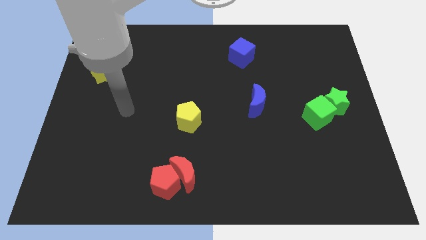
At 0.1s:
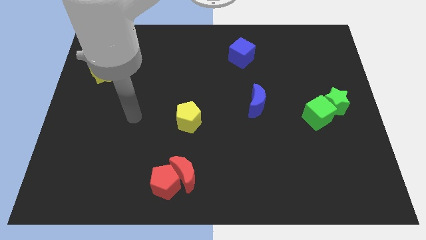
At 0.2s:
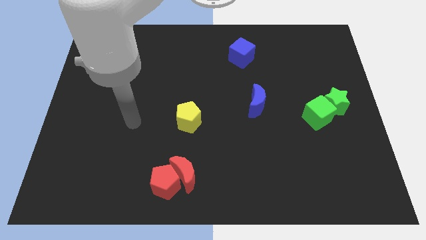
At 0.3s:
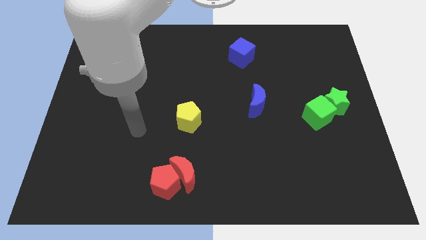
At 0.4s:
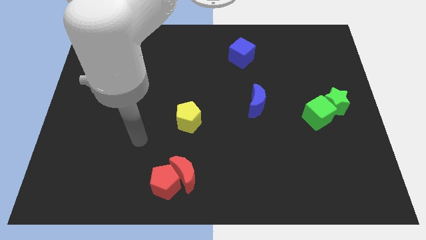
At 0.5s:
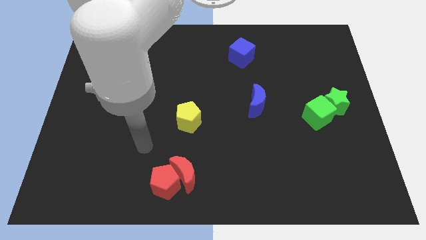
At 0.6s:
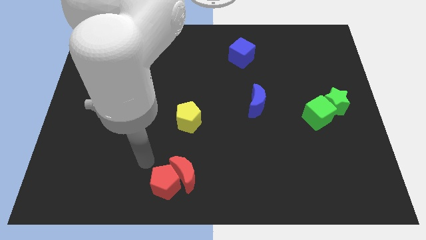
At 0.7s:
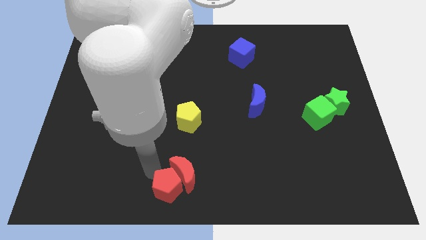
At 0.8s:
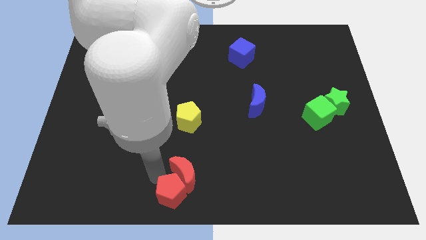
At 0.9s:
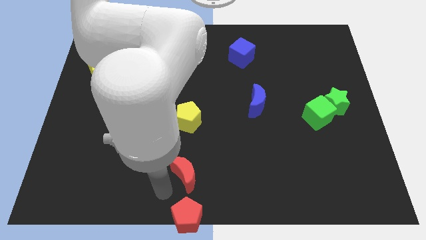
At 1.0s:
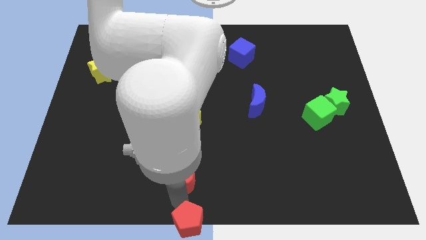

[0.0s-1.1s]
pull the red moon apart from the red pentagon

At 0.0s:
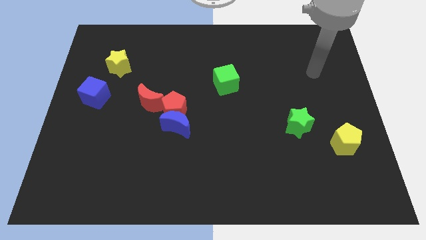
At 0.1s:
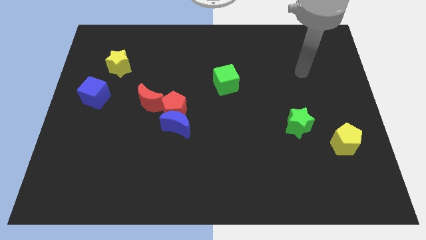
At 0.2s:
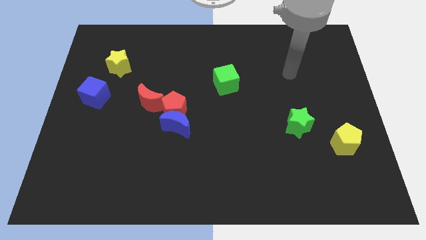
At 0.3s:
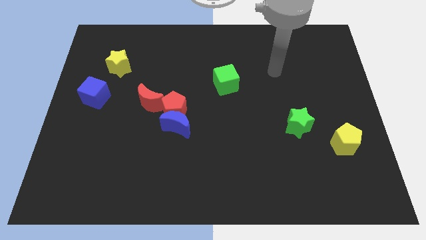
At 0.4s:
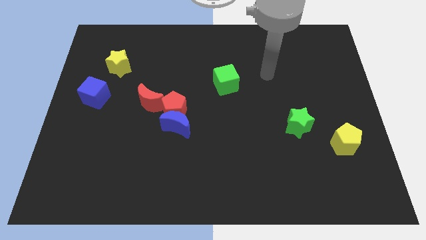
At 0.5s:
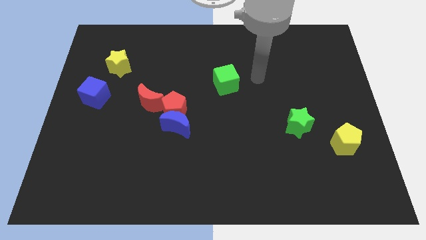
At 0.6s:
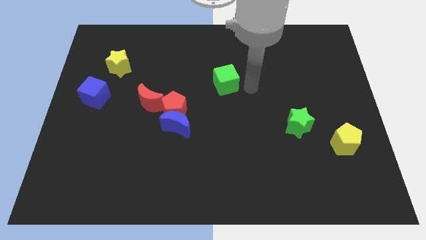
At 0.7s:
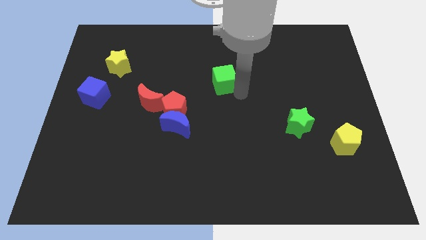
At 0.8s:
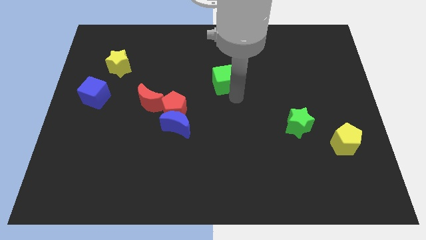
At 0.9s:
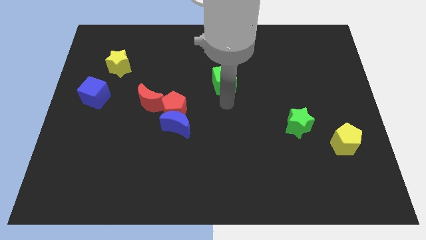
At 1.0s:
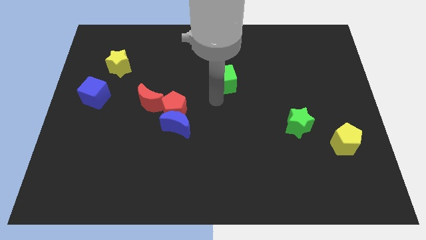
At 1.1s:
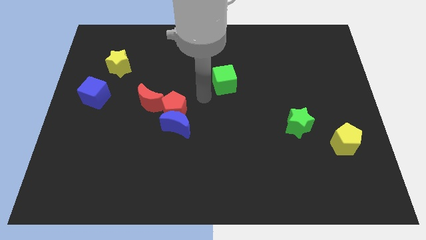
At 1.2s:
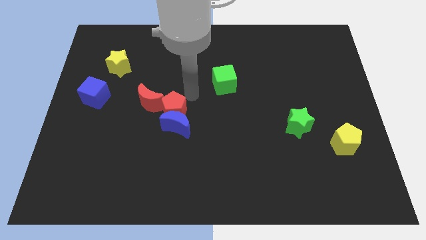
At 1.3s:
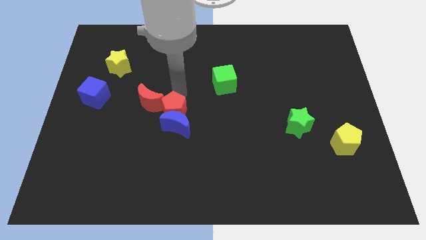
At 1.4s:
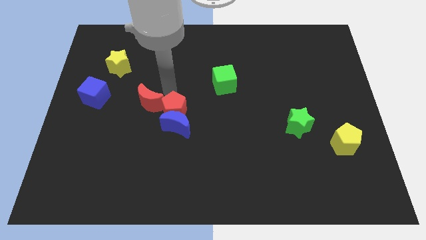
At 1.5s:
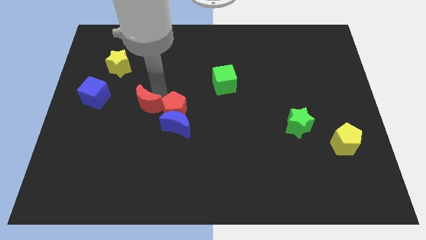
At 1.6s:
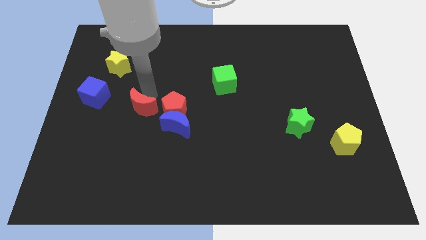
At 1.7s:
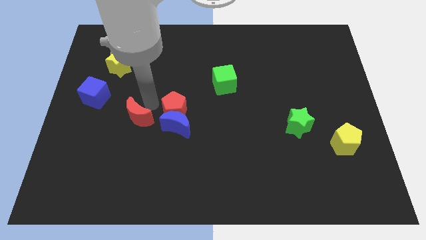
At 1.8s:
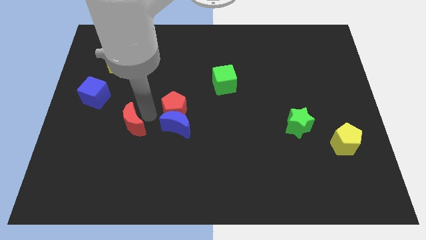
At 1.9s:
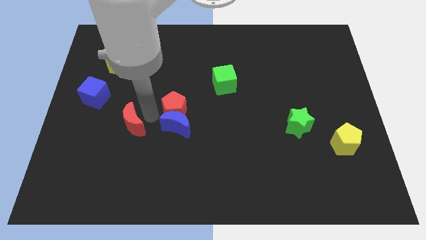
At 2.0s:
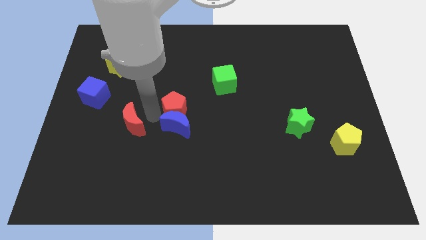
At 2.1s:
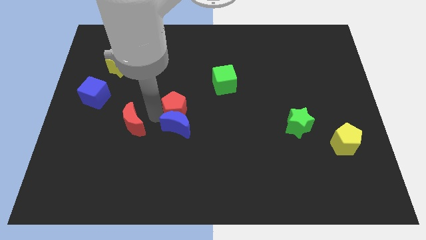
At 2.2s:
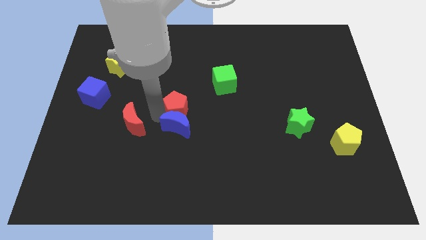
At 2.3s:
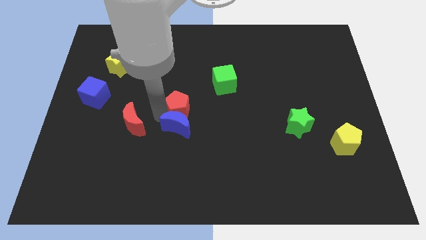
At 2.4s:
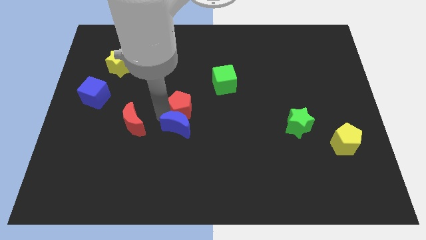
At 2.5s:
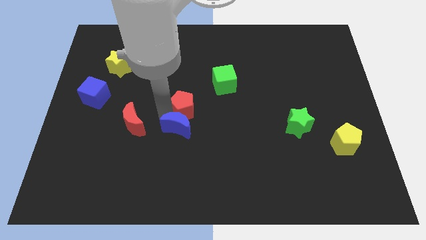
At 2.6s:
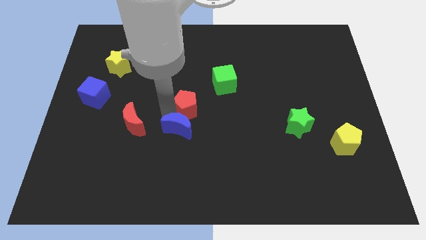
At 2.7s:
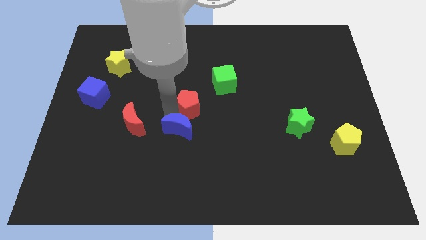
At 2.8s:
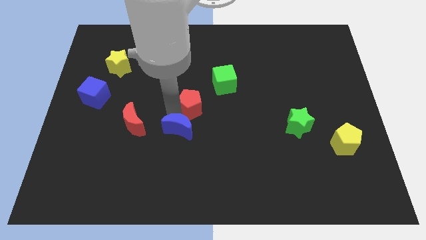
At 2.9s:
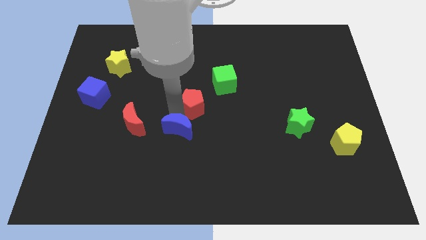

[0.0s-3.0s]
move the red pentagon away from the blue moon and red moon

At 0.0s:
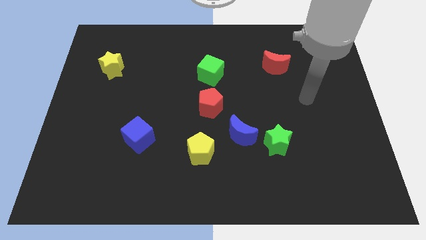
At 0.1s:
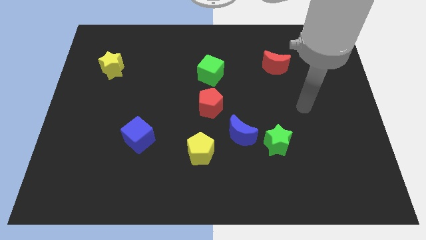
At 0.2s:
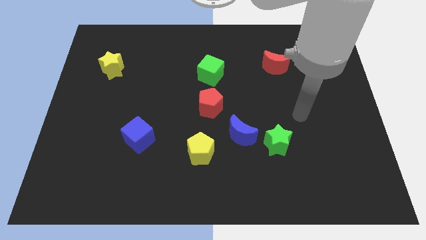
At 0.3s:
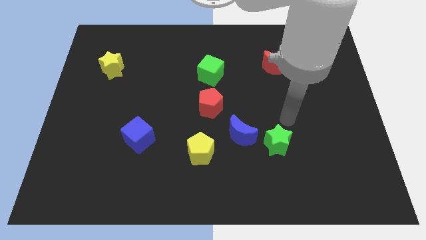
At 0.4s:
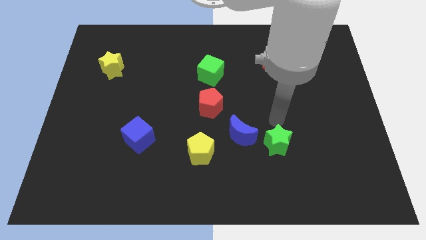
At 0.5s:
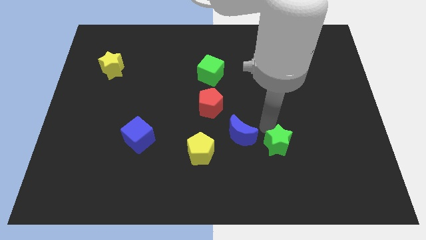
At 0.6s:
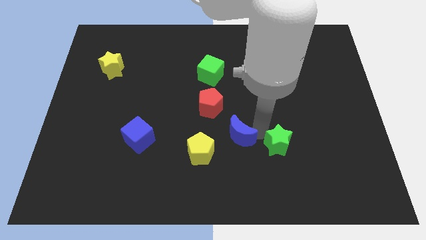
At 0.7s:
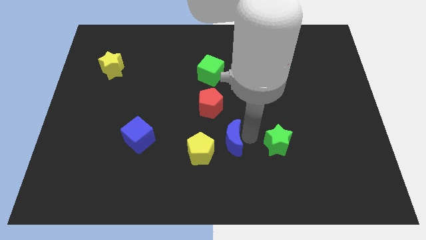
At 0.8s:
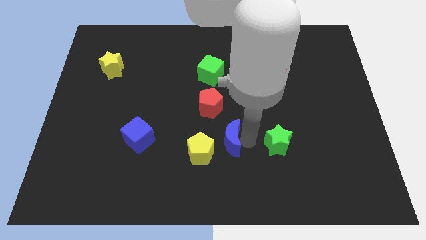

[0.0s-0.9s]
separate the green star from the blue moon

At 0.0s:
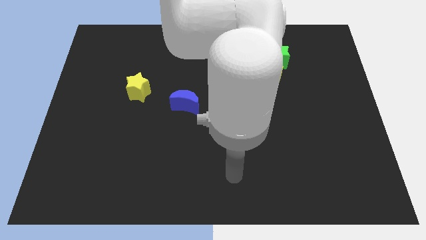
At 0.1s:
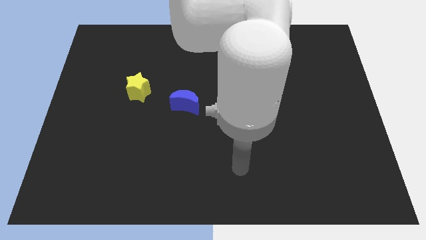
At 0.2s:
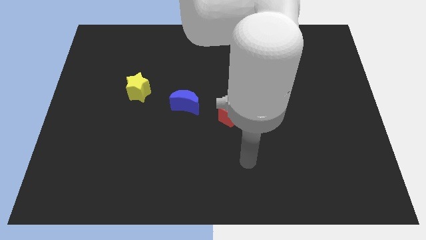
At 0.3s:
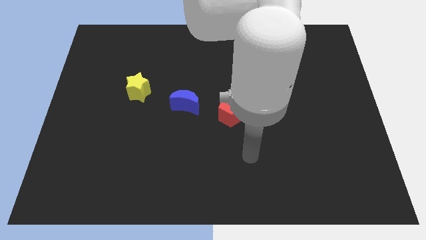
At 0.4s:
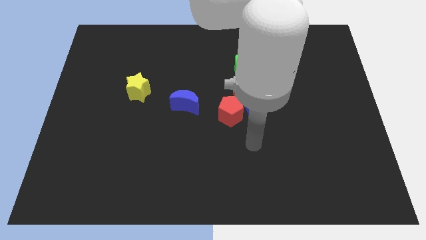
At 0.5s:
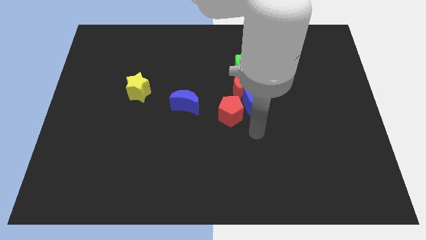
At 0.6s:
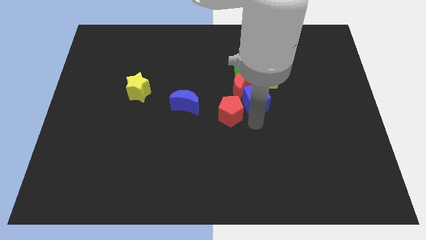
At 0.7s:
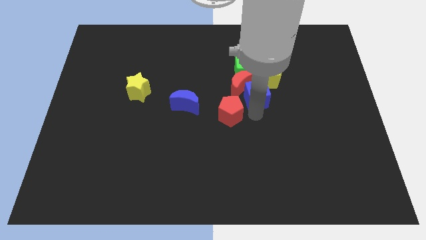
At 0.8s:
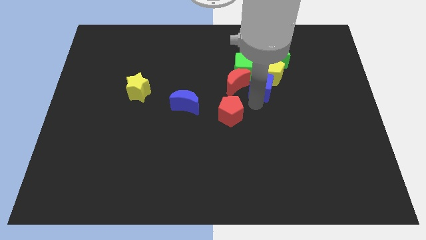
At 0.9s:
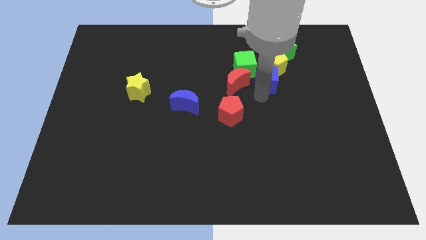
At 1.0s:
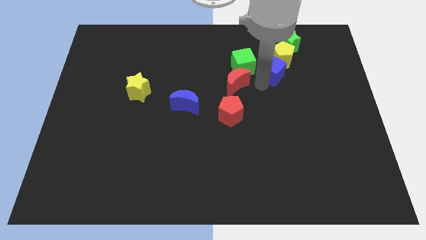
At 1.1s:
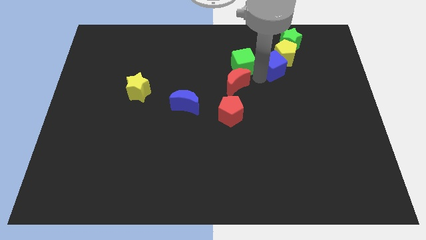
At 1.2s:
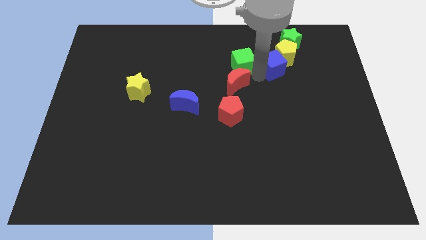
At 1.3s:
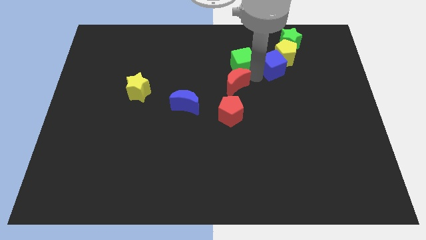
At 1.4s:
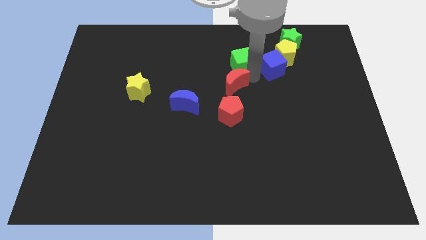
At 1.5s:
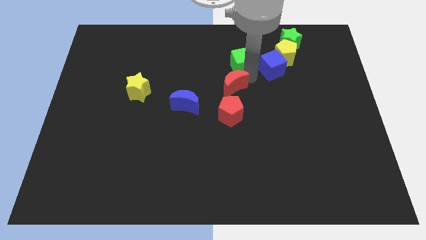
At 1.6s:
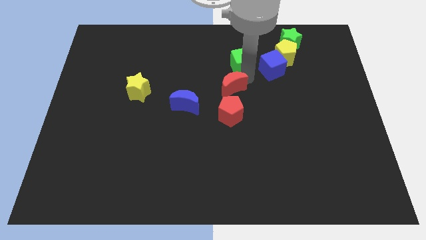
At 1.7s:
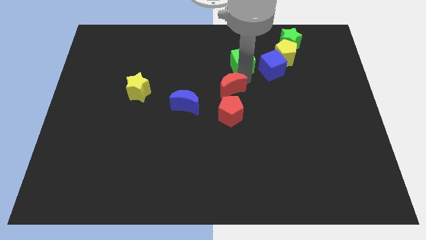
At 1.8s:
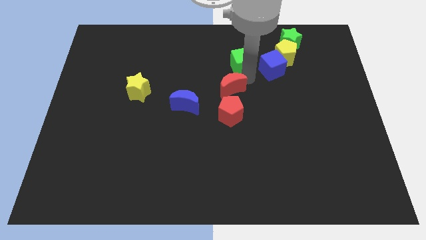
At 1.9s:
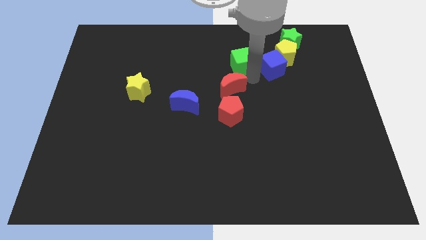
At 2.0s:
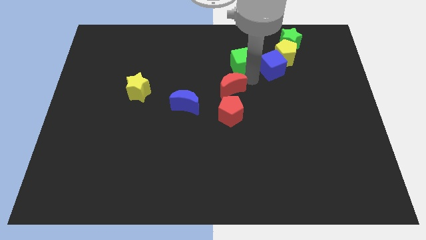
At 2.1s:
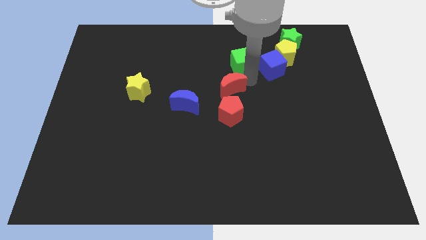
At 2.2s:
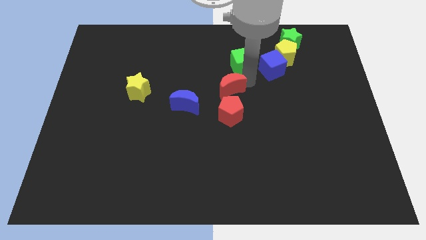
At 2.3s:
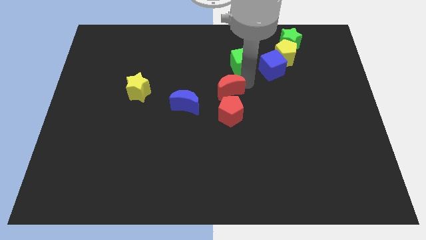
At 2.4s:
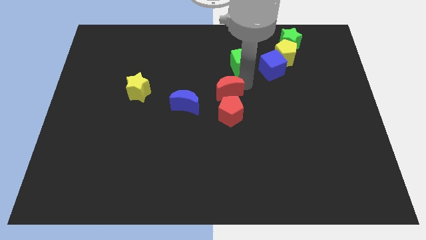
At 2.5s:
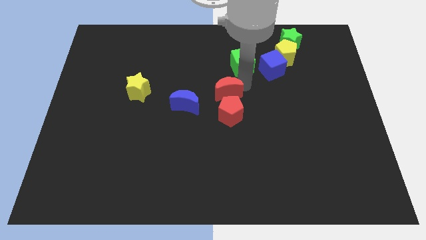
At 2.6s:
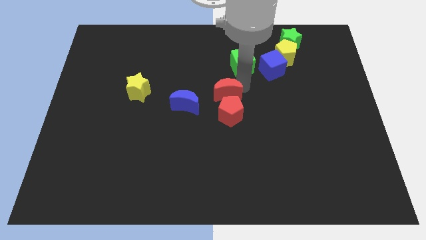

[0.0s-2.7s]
separate the red moon from the group

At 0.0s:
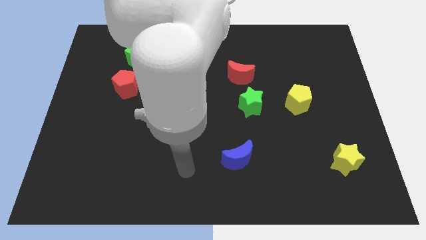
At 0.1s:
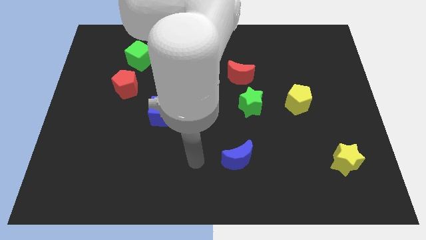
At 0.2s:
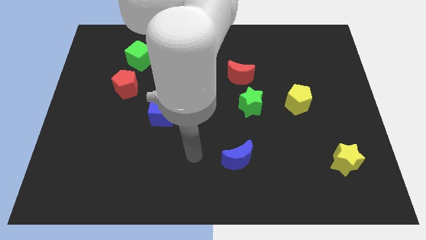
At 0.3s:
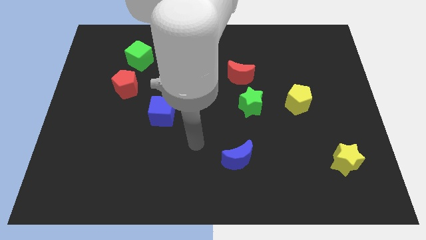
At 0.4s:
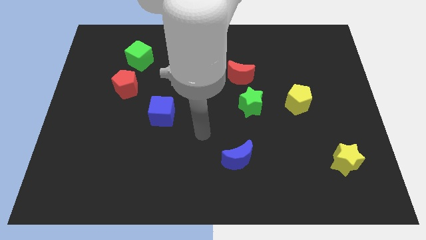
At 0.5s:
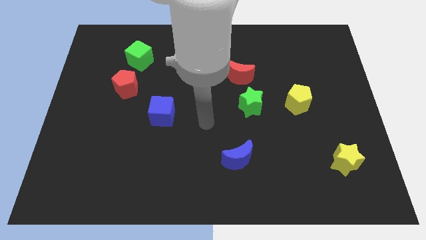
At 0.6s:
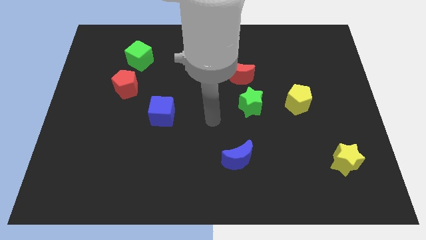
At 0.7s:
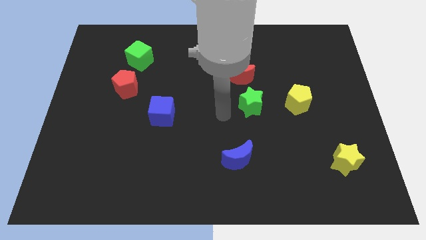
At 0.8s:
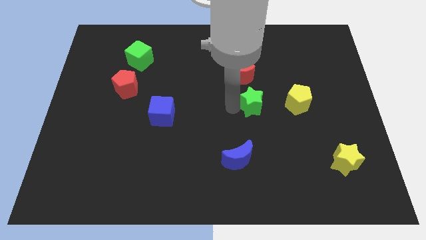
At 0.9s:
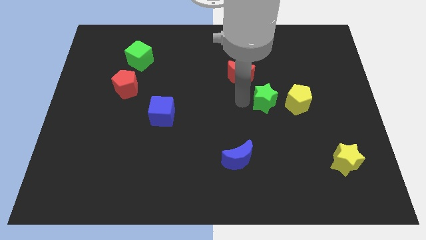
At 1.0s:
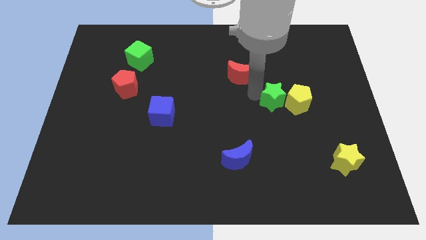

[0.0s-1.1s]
pull the red moon apart from the green star

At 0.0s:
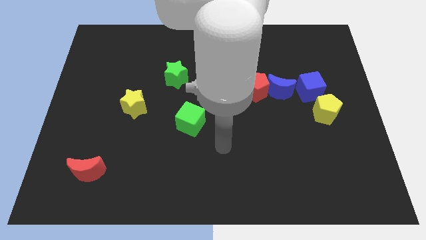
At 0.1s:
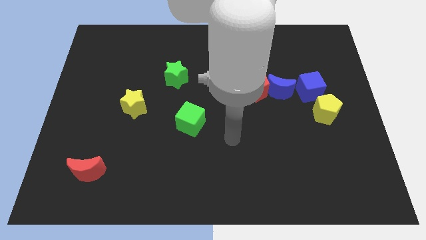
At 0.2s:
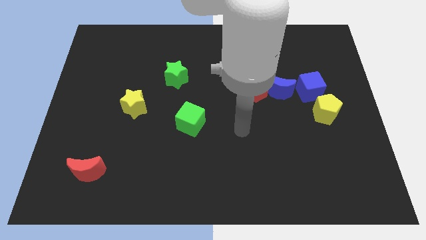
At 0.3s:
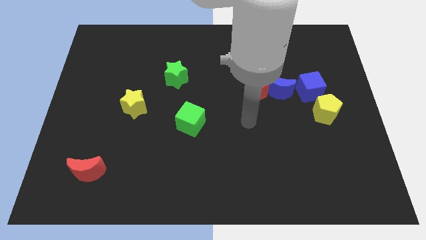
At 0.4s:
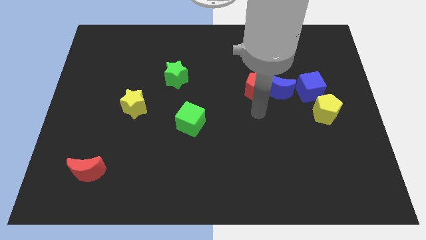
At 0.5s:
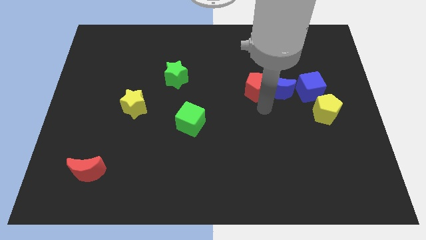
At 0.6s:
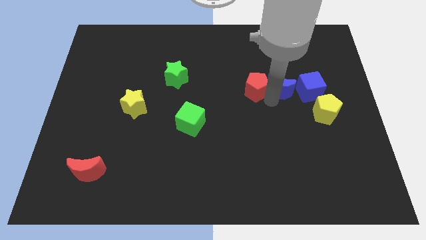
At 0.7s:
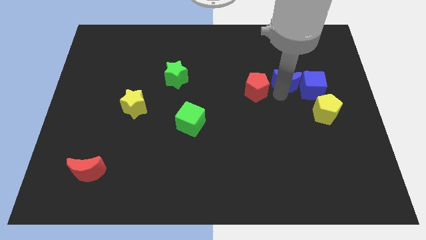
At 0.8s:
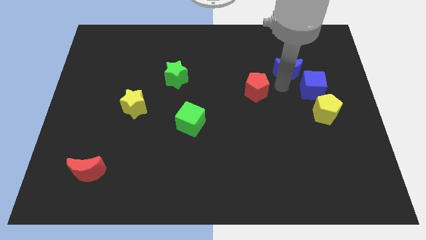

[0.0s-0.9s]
separate the red pentagon from the blue moon
